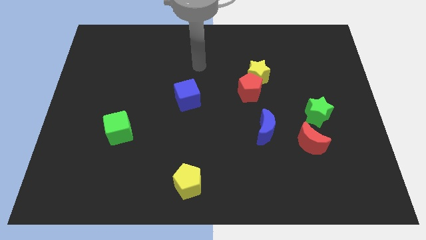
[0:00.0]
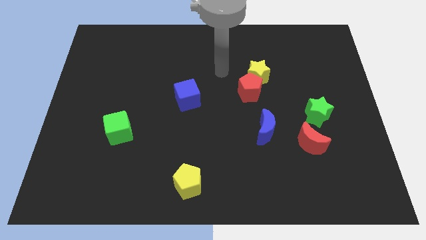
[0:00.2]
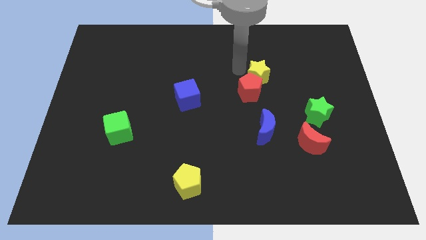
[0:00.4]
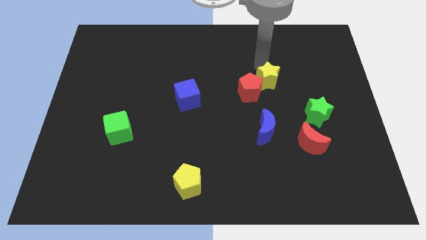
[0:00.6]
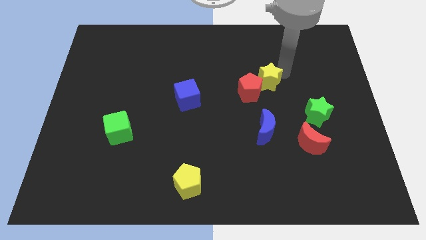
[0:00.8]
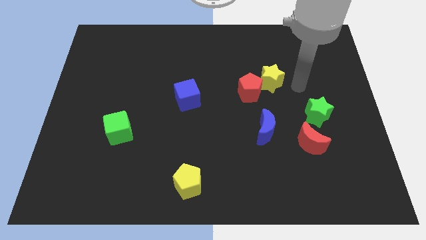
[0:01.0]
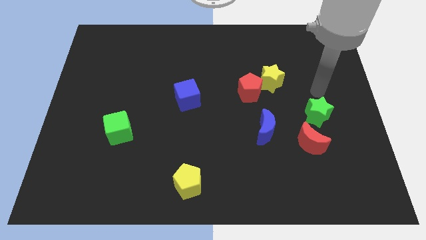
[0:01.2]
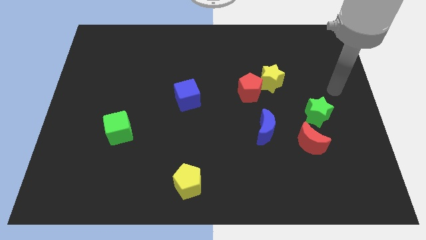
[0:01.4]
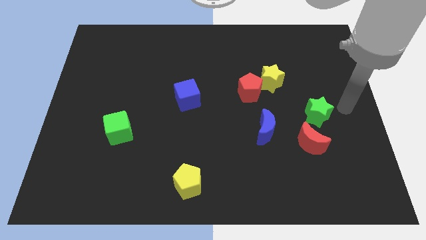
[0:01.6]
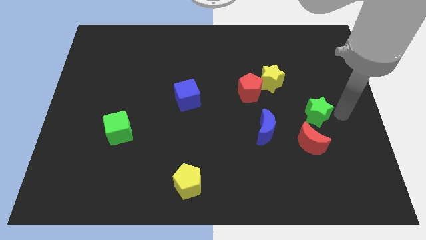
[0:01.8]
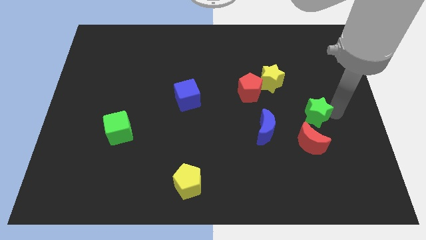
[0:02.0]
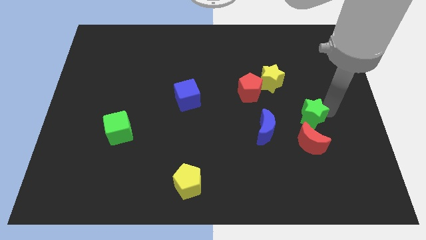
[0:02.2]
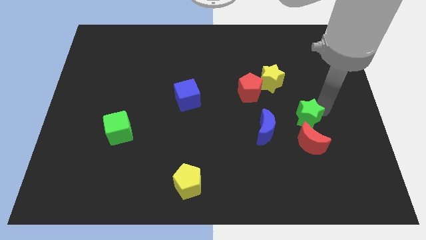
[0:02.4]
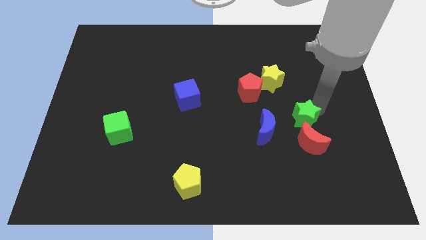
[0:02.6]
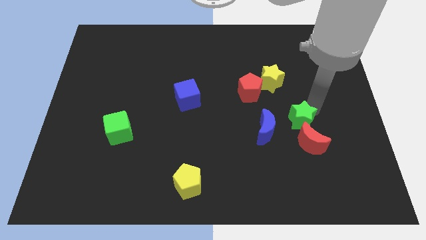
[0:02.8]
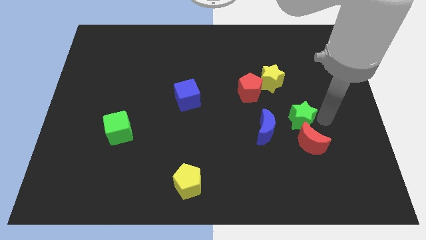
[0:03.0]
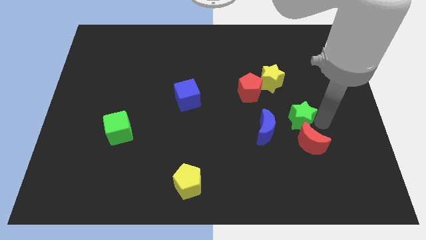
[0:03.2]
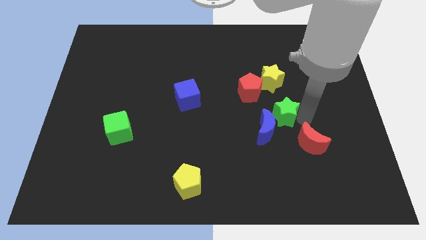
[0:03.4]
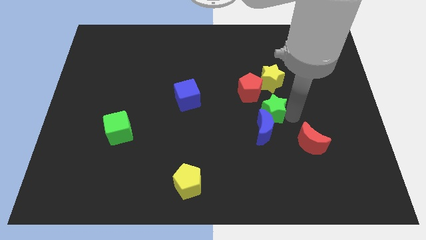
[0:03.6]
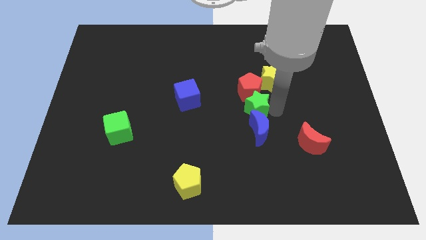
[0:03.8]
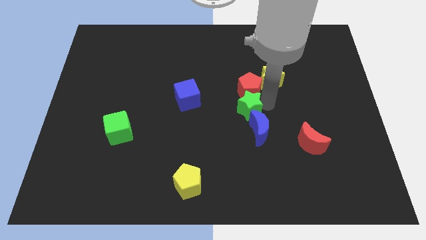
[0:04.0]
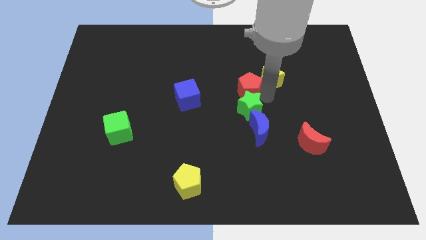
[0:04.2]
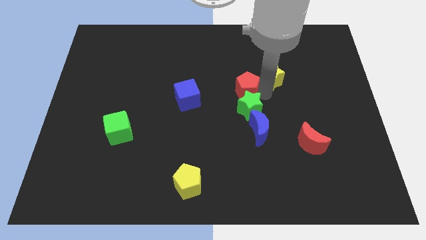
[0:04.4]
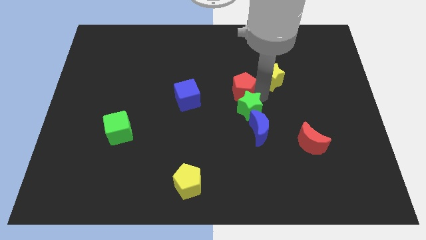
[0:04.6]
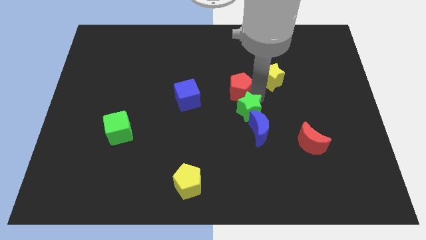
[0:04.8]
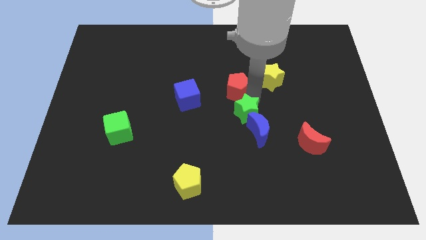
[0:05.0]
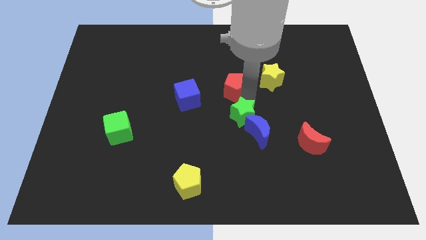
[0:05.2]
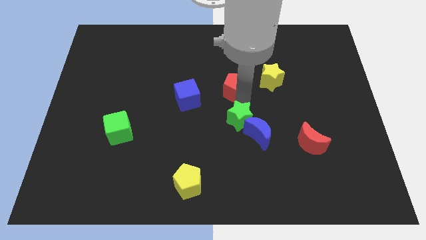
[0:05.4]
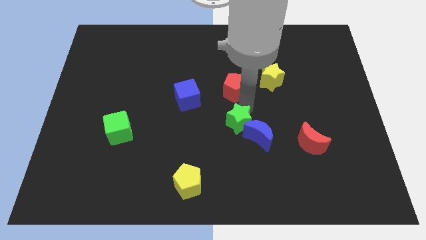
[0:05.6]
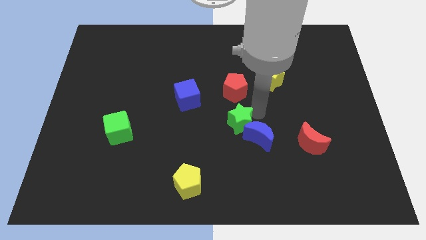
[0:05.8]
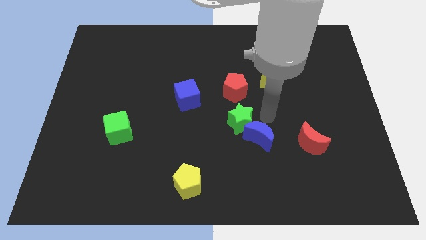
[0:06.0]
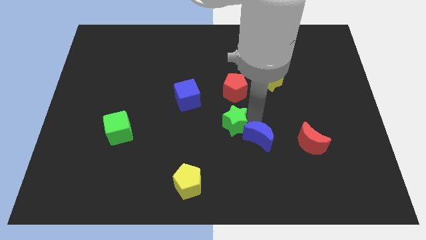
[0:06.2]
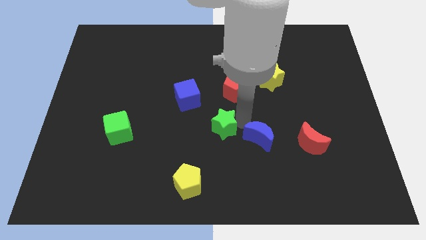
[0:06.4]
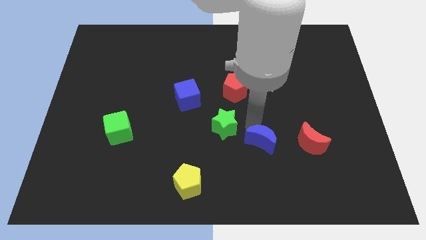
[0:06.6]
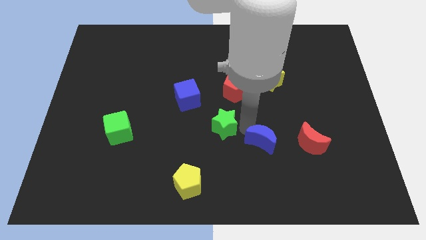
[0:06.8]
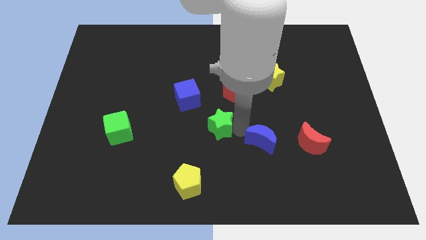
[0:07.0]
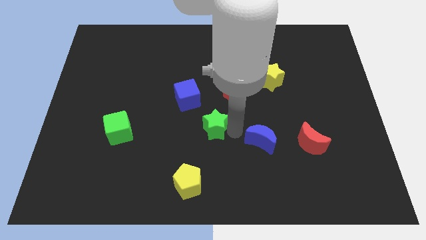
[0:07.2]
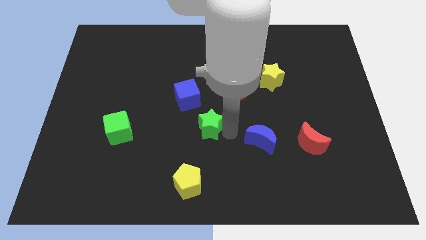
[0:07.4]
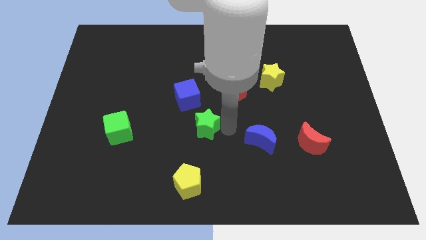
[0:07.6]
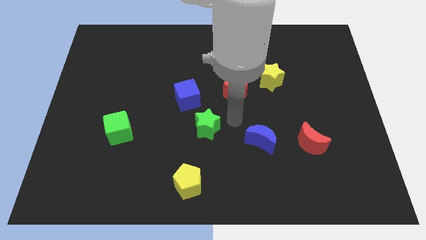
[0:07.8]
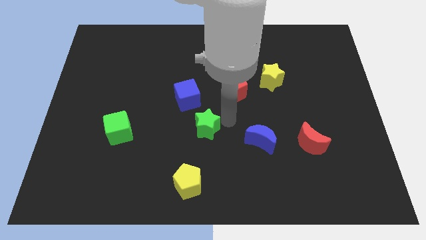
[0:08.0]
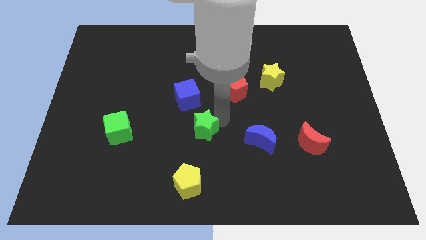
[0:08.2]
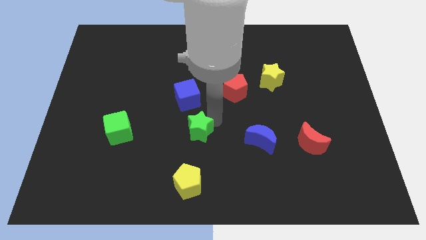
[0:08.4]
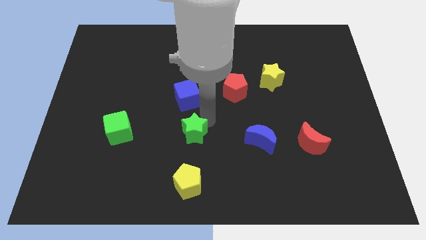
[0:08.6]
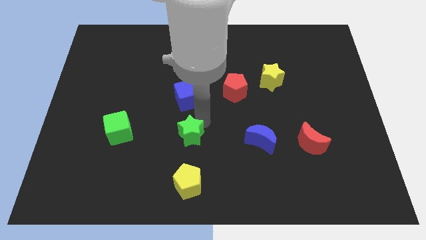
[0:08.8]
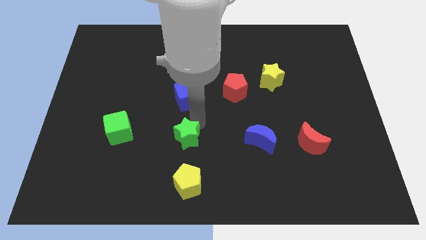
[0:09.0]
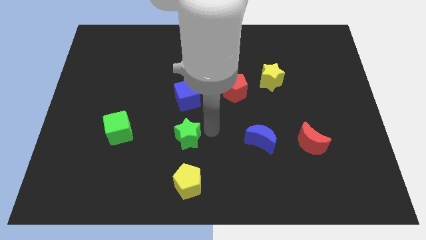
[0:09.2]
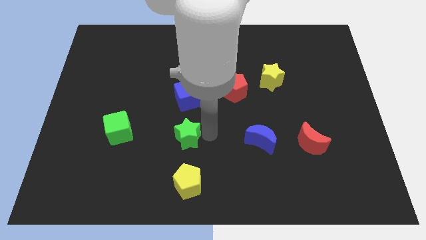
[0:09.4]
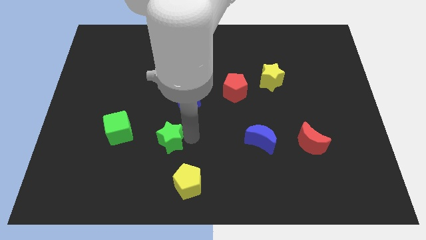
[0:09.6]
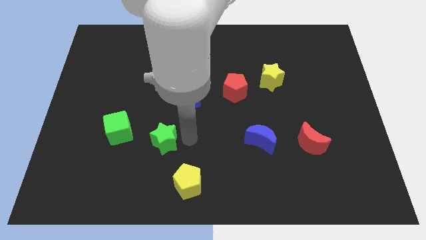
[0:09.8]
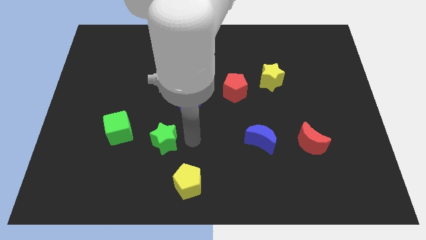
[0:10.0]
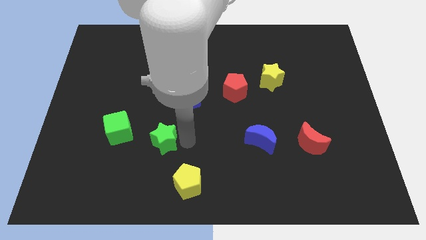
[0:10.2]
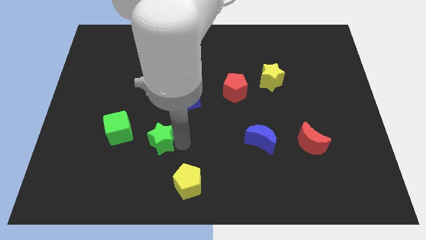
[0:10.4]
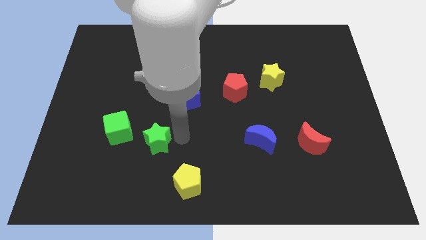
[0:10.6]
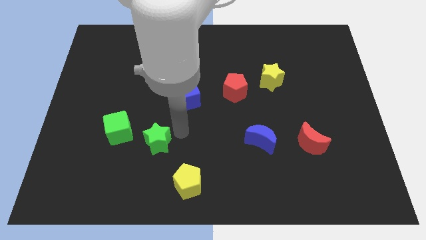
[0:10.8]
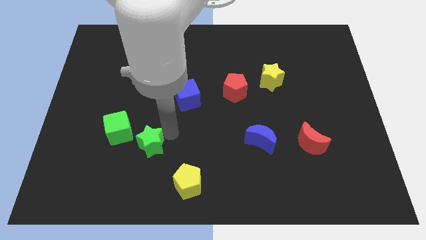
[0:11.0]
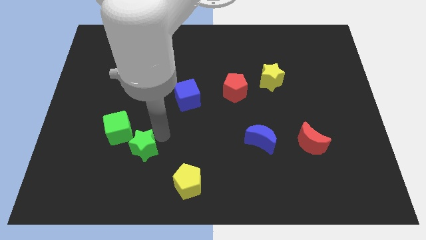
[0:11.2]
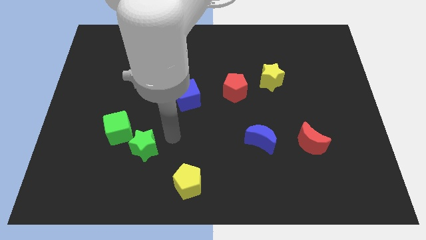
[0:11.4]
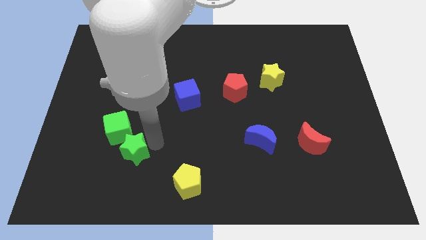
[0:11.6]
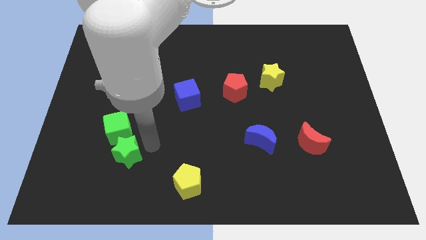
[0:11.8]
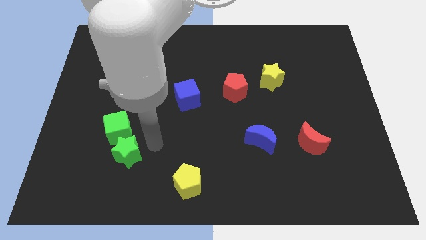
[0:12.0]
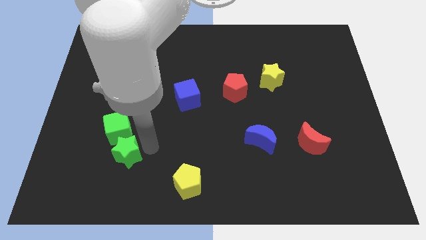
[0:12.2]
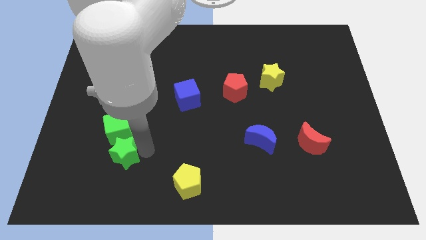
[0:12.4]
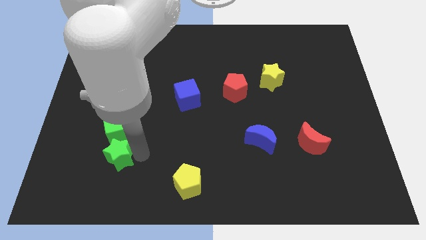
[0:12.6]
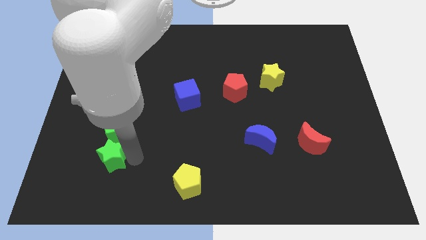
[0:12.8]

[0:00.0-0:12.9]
put the green star to the bottom left of the green cube
